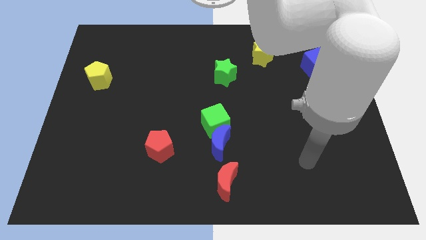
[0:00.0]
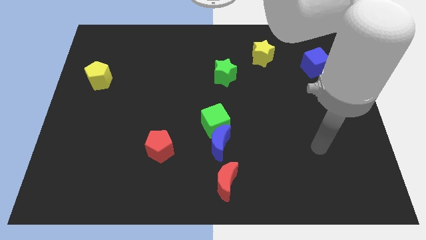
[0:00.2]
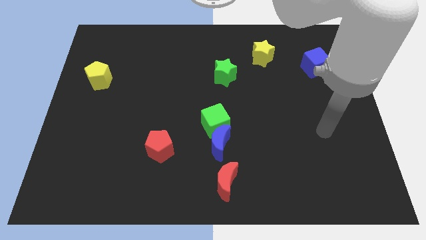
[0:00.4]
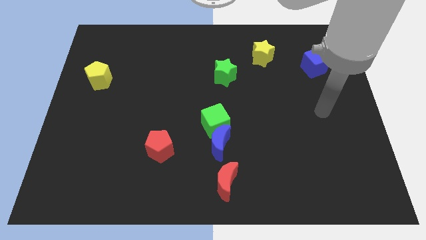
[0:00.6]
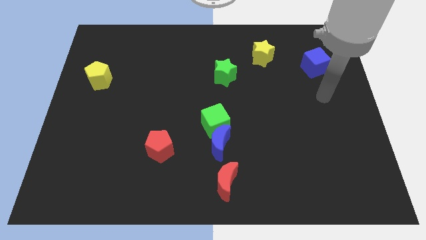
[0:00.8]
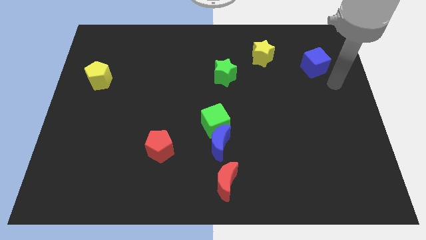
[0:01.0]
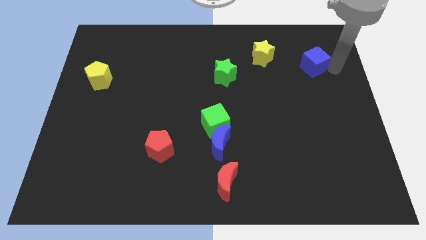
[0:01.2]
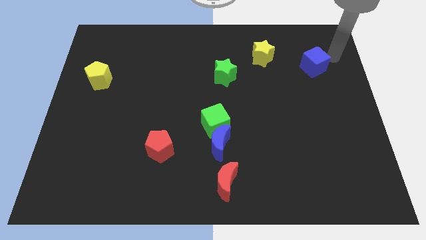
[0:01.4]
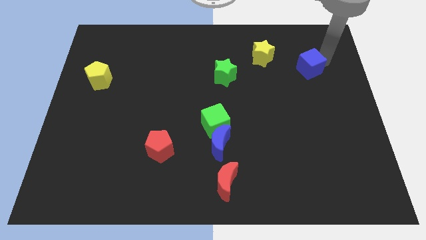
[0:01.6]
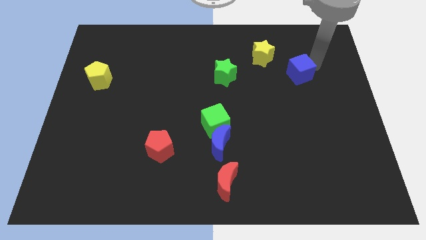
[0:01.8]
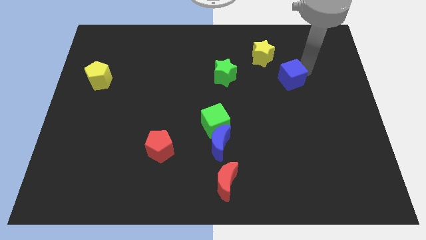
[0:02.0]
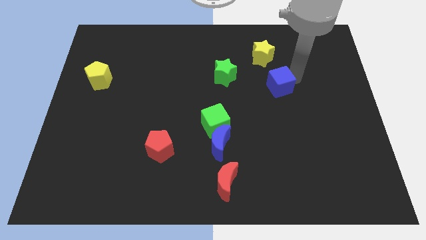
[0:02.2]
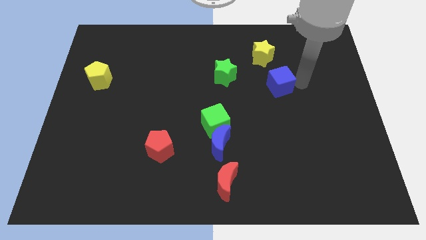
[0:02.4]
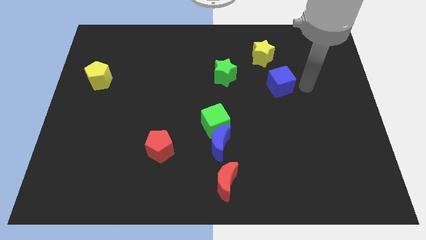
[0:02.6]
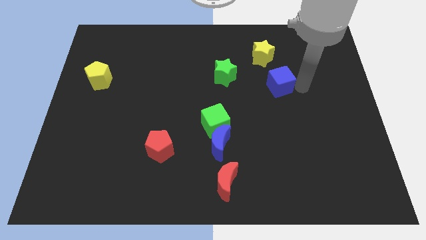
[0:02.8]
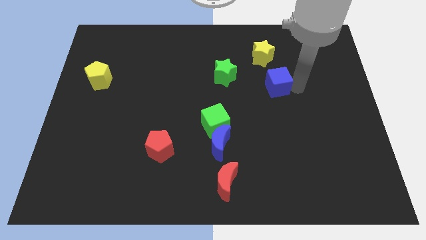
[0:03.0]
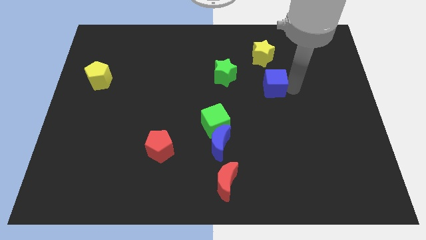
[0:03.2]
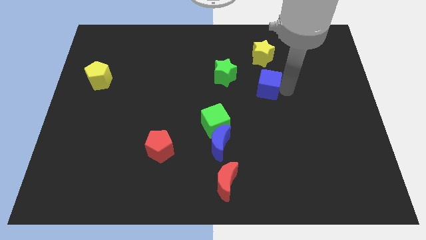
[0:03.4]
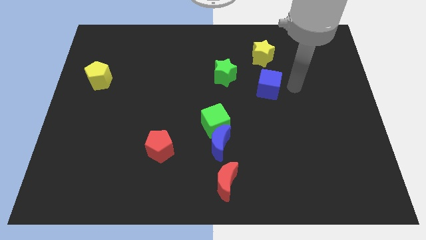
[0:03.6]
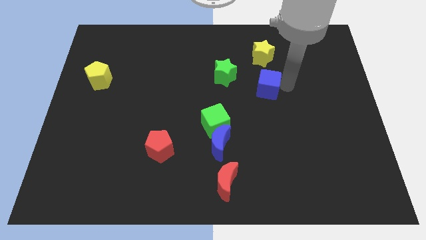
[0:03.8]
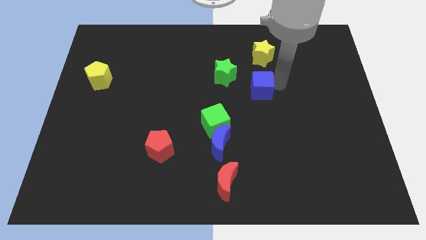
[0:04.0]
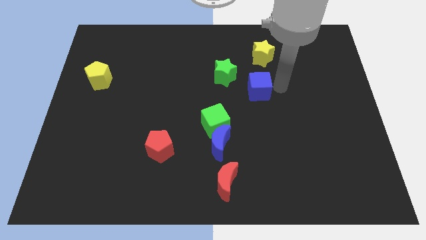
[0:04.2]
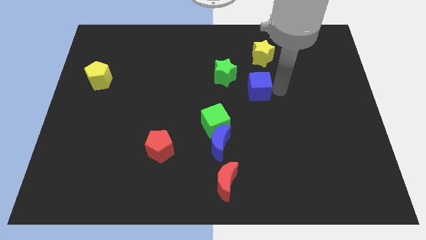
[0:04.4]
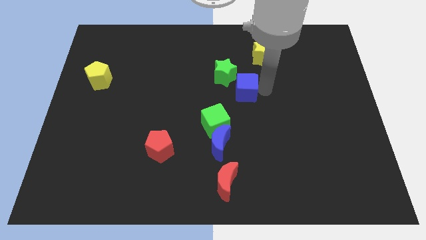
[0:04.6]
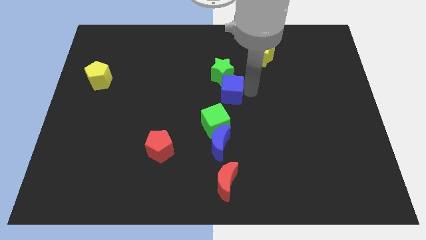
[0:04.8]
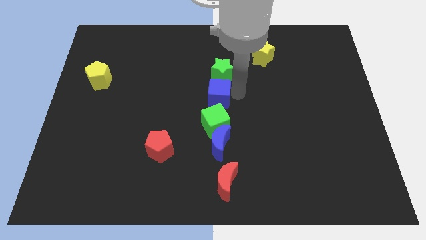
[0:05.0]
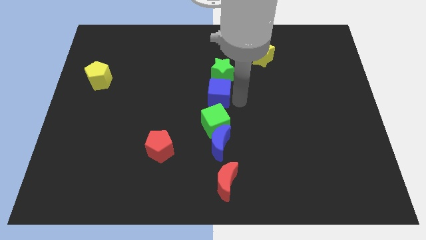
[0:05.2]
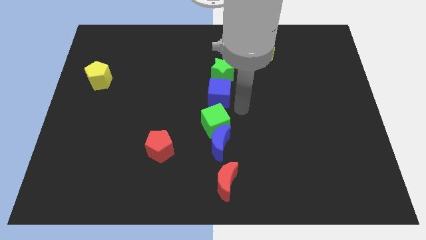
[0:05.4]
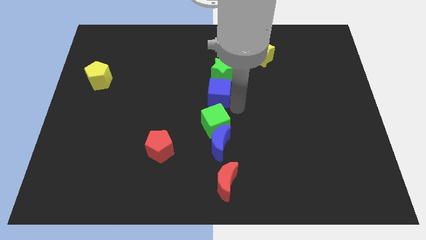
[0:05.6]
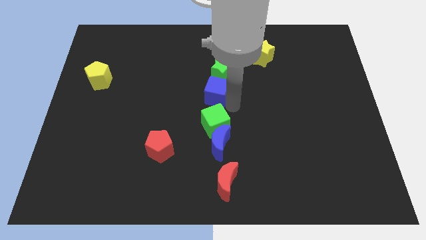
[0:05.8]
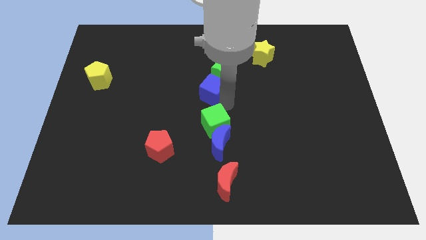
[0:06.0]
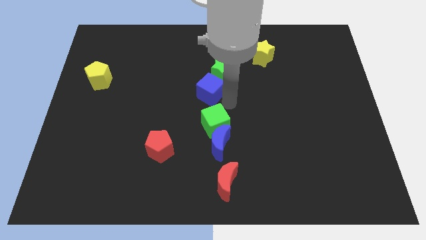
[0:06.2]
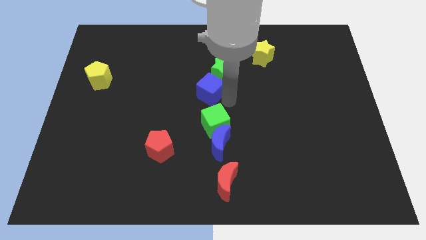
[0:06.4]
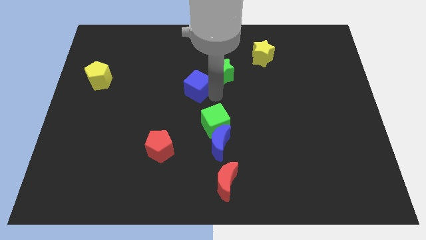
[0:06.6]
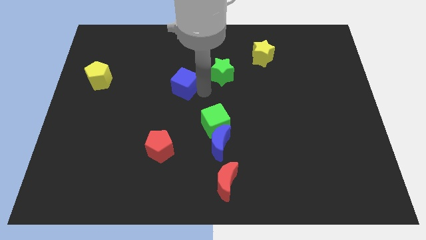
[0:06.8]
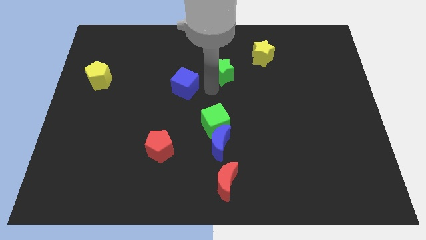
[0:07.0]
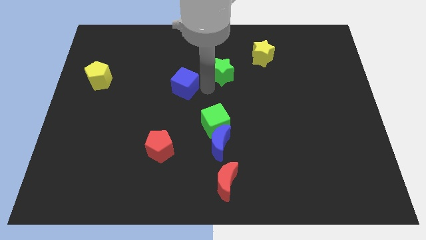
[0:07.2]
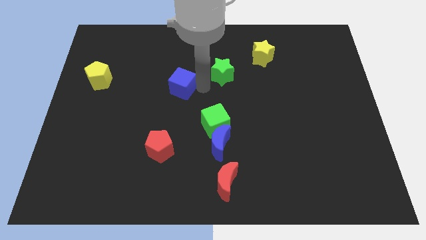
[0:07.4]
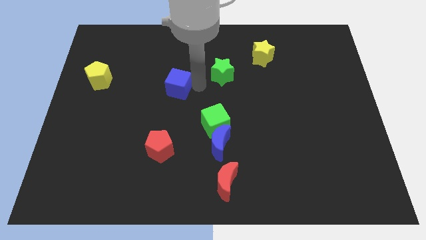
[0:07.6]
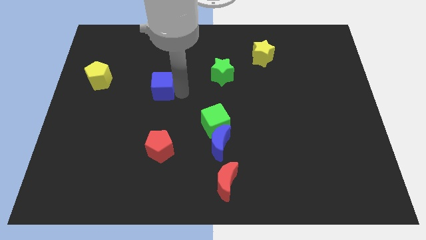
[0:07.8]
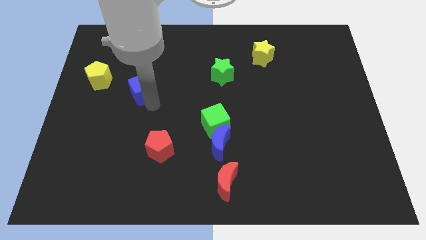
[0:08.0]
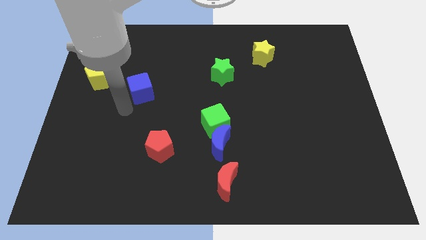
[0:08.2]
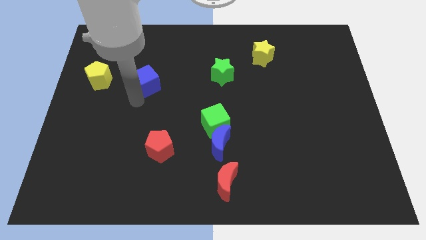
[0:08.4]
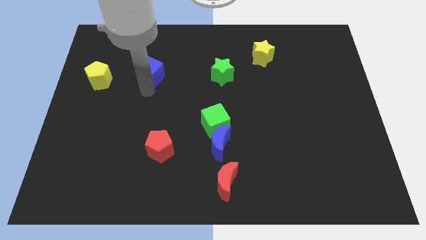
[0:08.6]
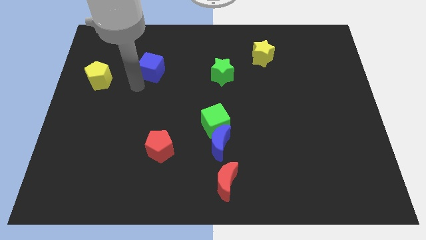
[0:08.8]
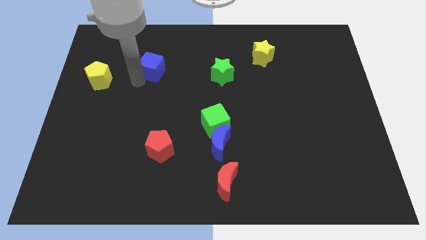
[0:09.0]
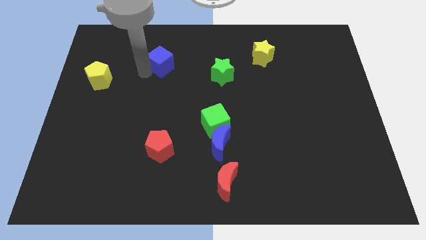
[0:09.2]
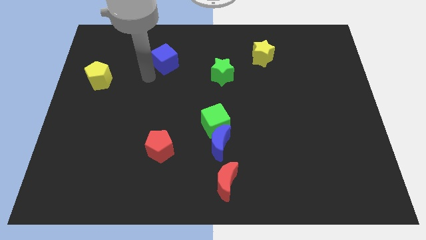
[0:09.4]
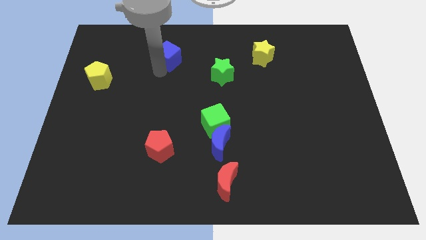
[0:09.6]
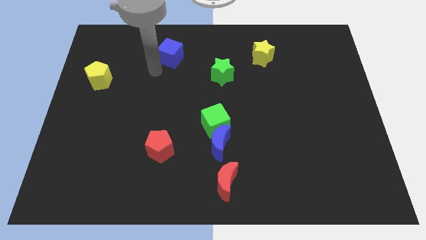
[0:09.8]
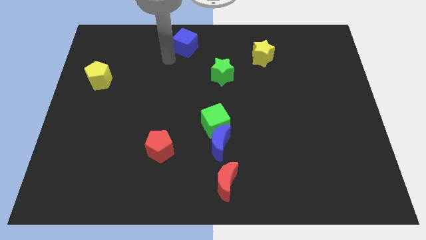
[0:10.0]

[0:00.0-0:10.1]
slide the blue cube to the towards your base

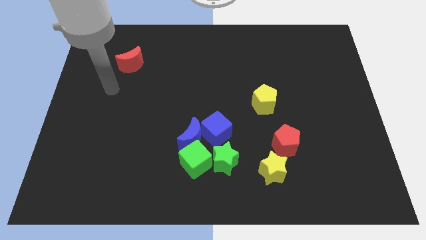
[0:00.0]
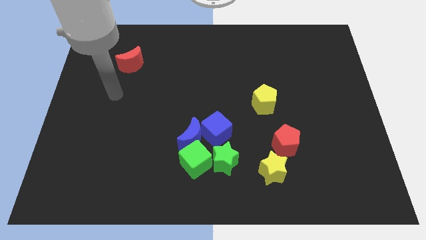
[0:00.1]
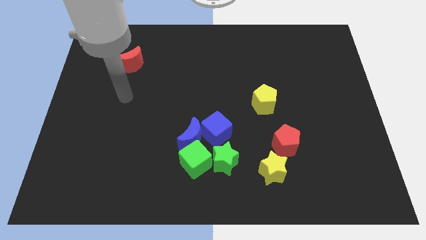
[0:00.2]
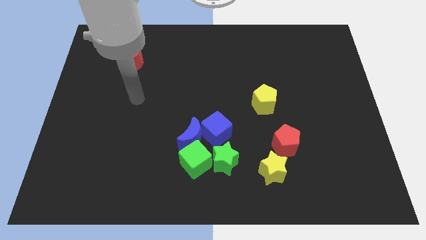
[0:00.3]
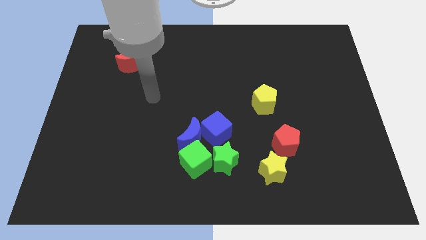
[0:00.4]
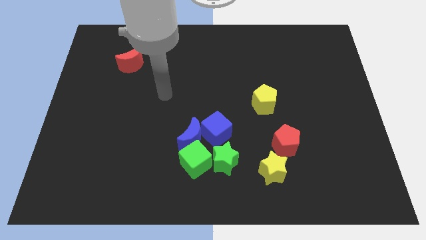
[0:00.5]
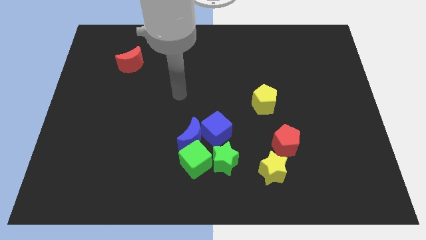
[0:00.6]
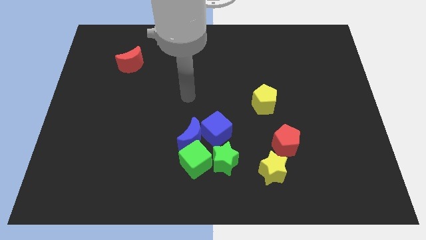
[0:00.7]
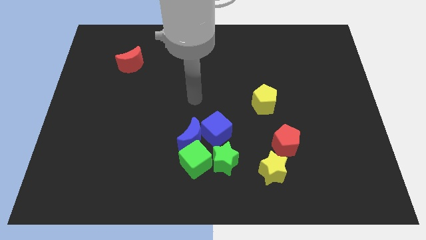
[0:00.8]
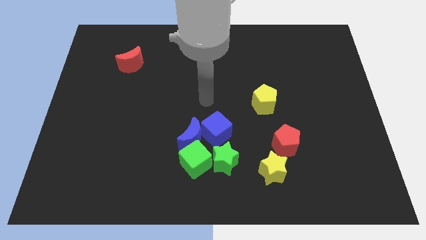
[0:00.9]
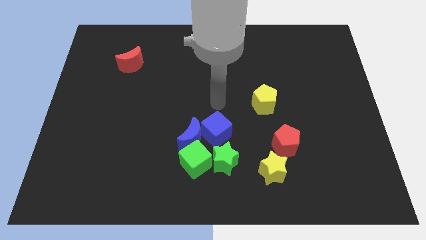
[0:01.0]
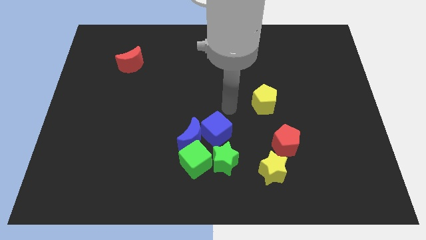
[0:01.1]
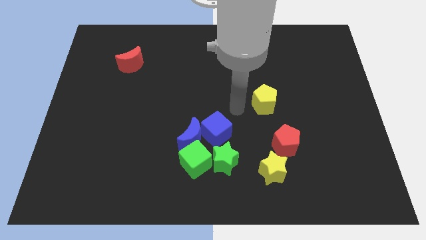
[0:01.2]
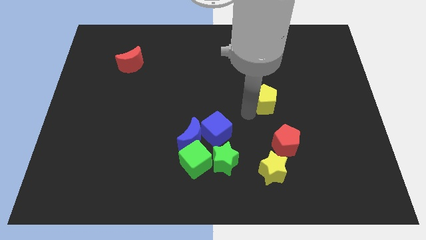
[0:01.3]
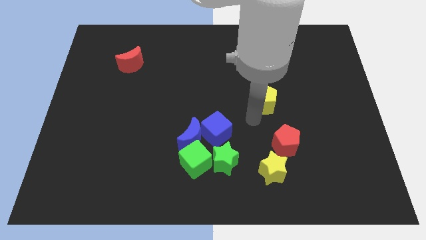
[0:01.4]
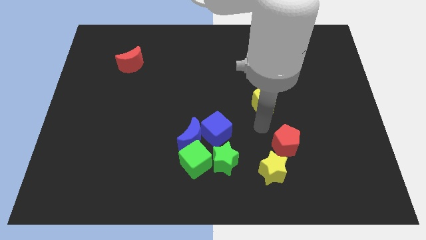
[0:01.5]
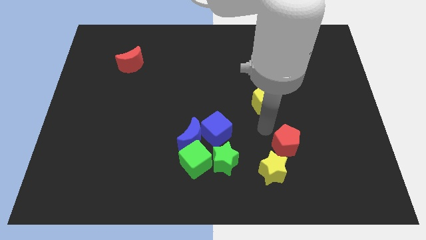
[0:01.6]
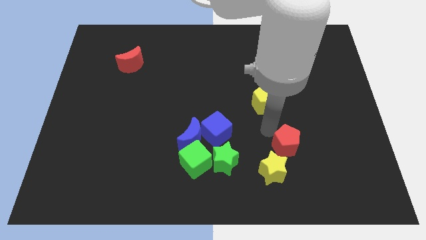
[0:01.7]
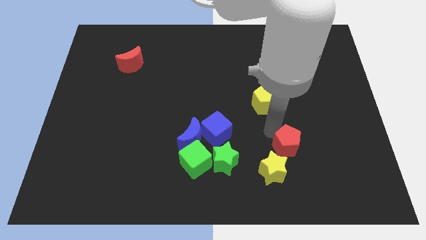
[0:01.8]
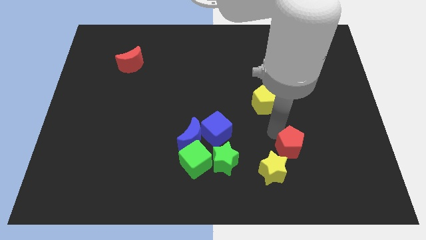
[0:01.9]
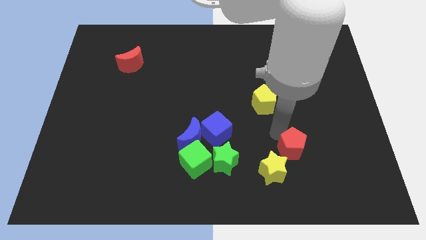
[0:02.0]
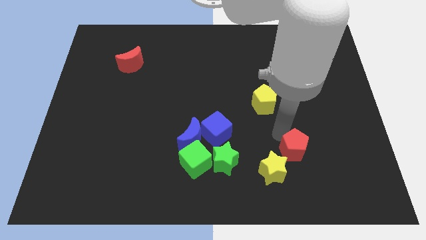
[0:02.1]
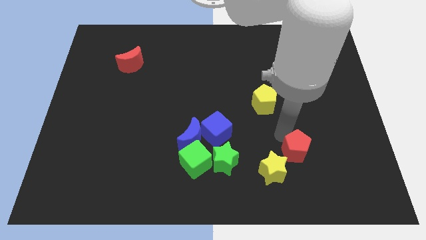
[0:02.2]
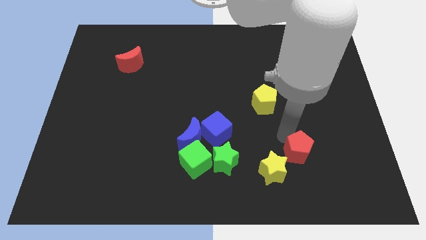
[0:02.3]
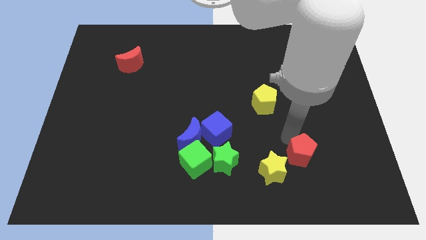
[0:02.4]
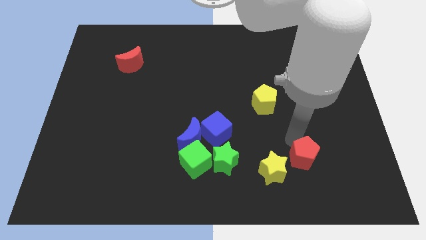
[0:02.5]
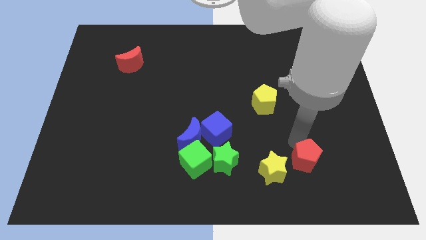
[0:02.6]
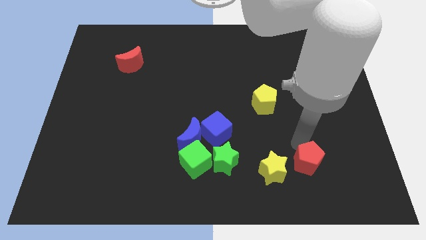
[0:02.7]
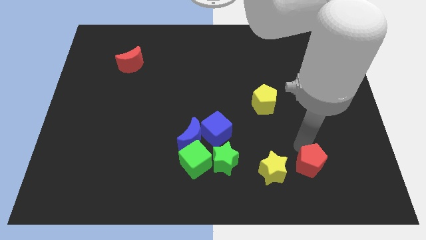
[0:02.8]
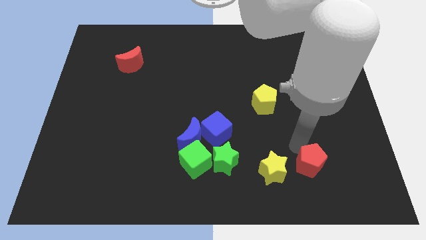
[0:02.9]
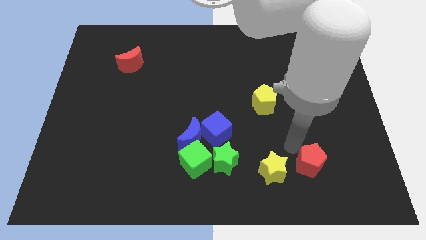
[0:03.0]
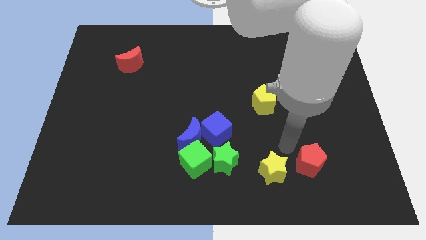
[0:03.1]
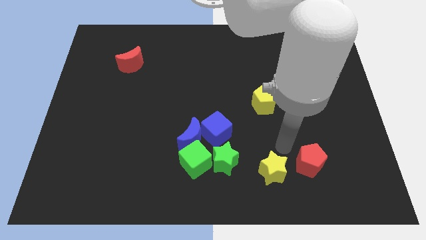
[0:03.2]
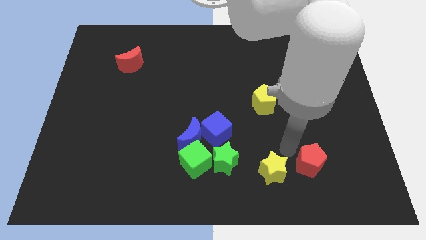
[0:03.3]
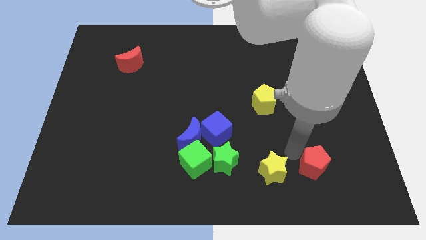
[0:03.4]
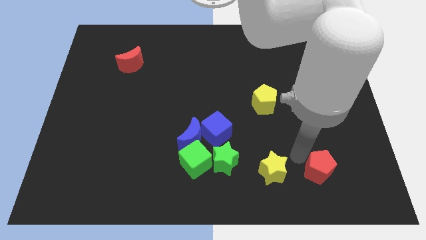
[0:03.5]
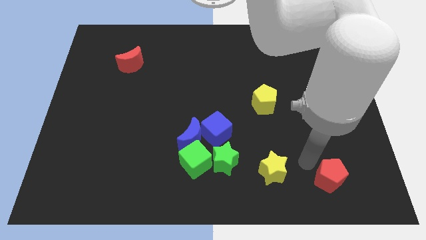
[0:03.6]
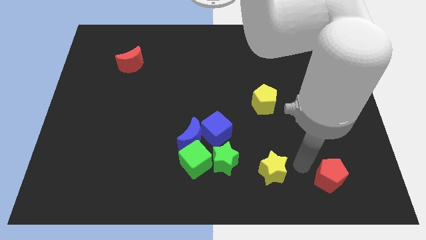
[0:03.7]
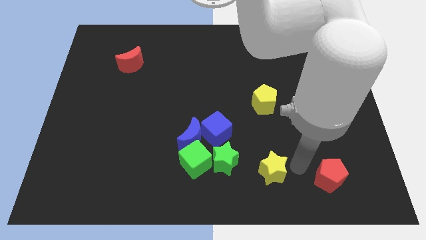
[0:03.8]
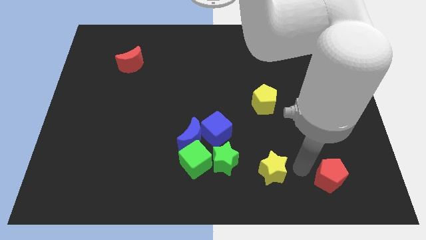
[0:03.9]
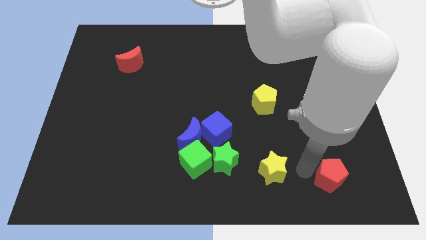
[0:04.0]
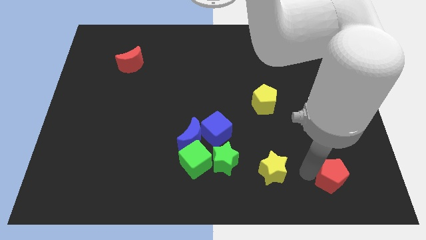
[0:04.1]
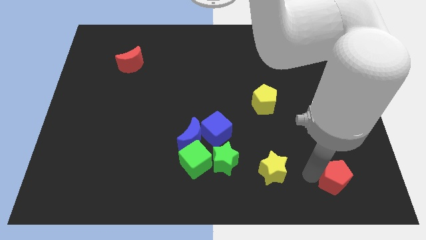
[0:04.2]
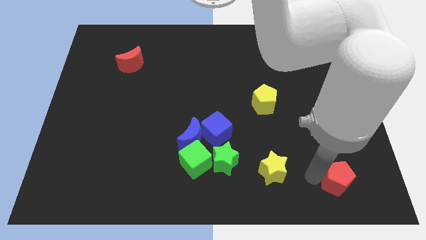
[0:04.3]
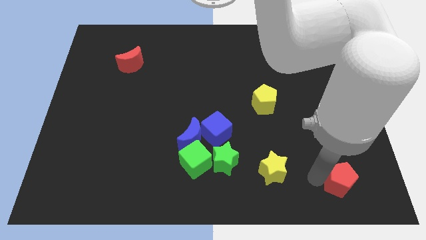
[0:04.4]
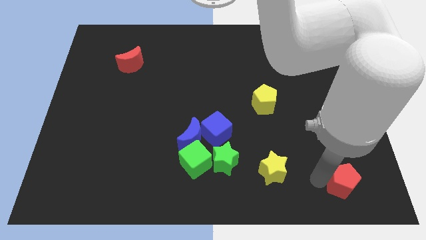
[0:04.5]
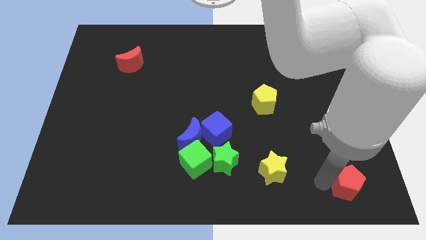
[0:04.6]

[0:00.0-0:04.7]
move the red pentagon to the bottom right of the board
